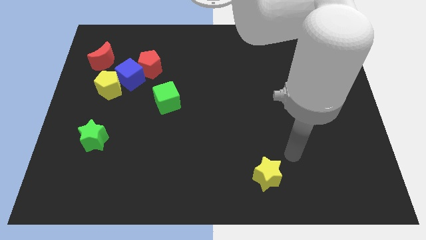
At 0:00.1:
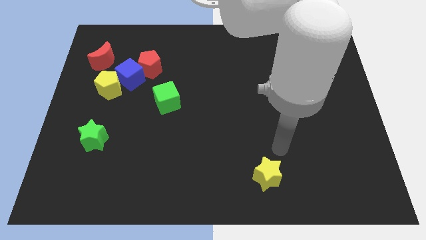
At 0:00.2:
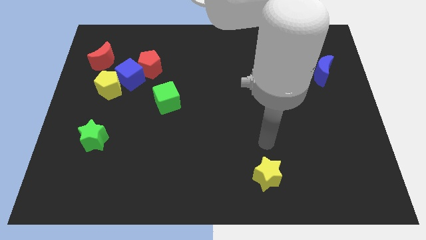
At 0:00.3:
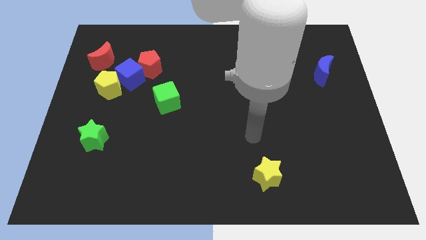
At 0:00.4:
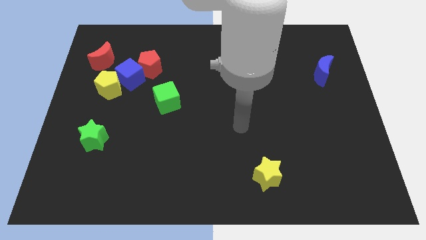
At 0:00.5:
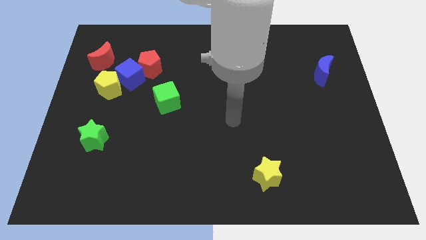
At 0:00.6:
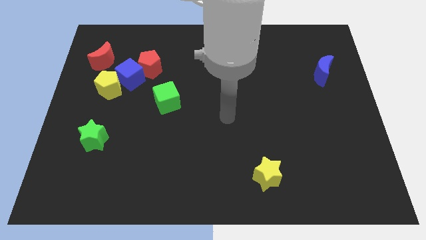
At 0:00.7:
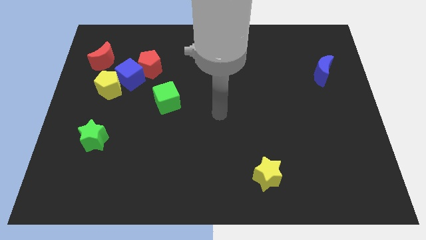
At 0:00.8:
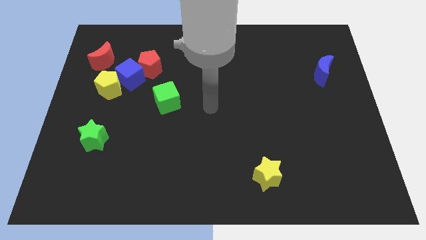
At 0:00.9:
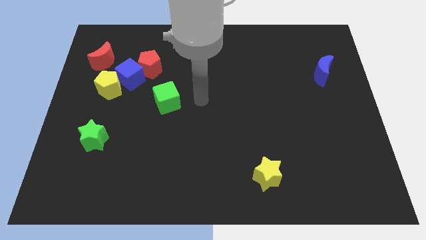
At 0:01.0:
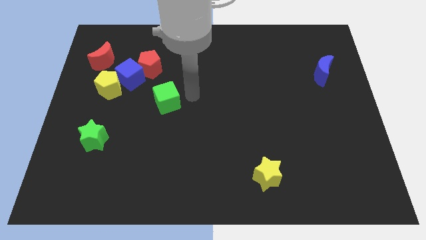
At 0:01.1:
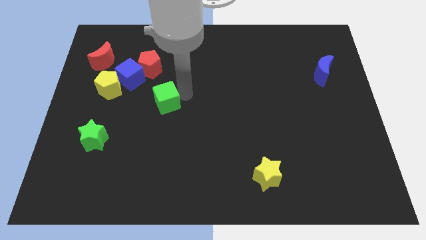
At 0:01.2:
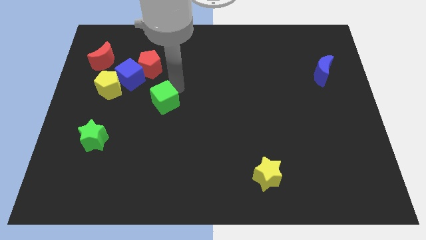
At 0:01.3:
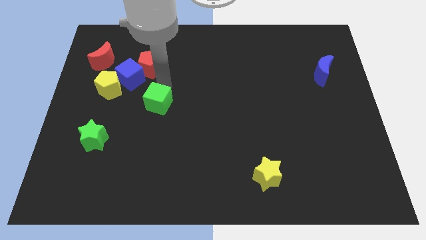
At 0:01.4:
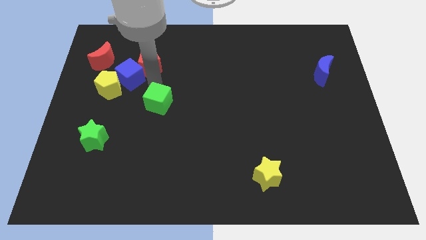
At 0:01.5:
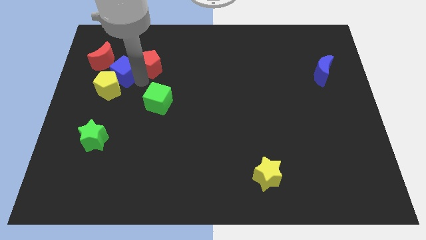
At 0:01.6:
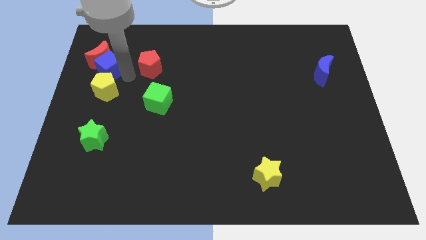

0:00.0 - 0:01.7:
separate the red pentagon from the blue cube

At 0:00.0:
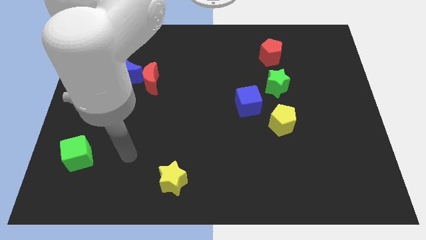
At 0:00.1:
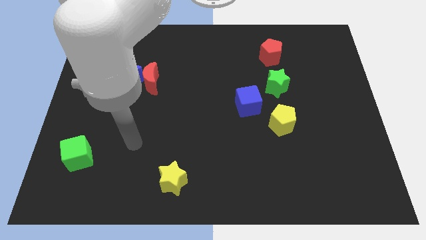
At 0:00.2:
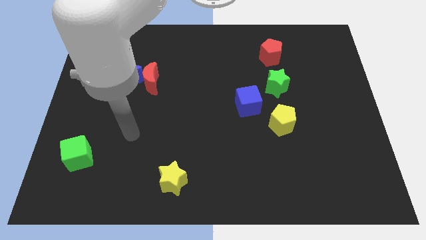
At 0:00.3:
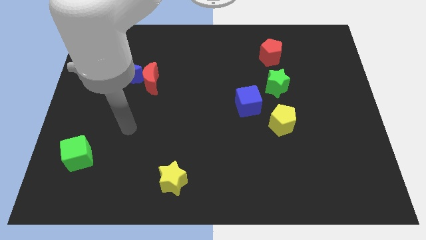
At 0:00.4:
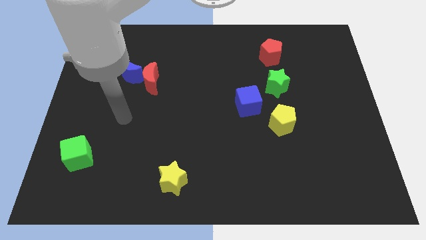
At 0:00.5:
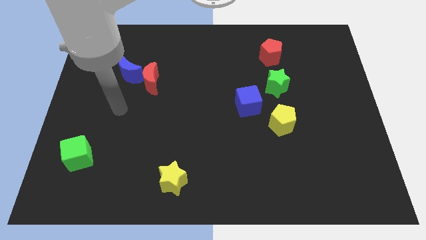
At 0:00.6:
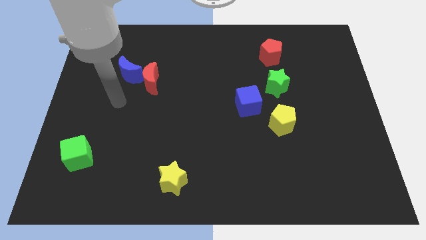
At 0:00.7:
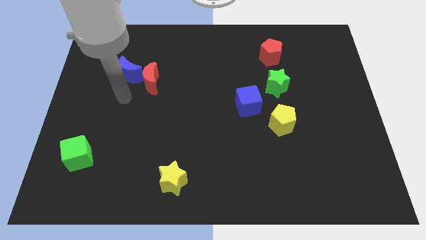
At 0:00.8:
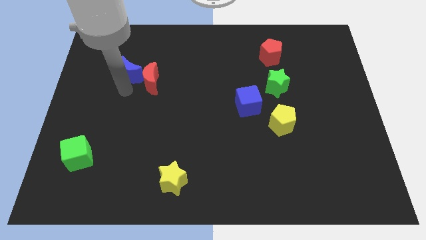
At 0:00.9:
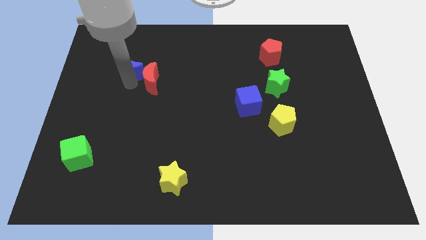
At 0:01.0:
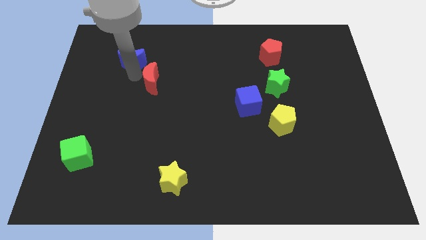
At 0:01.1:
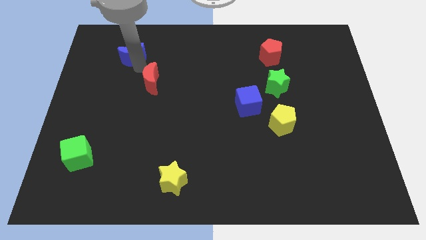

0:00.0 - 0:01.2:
separate the red moon from the blue moon

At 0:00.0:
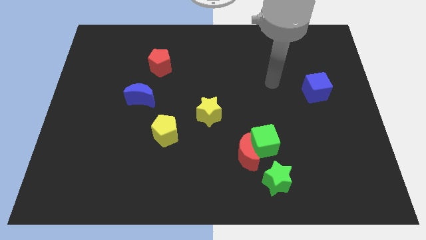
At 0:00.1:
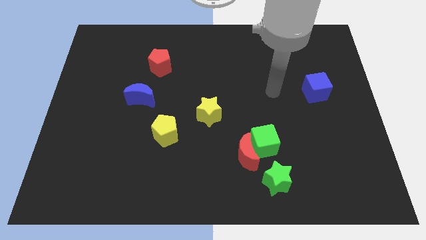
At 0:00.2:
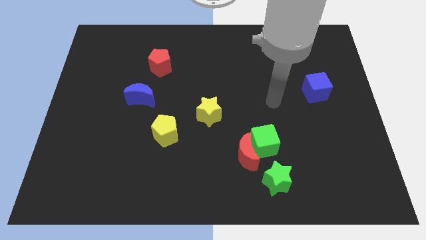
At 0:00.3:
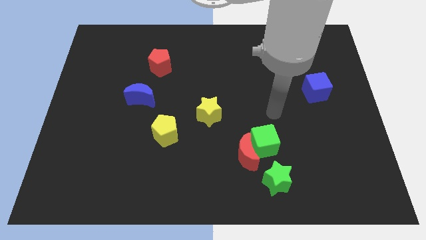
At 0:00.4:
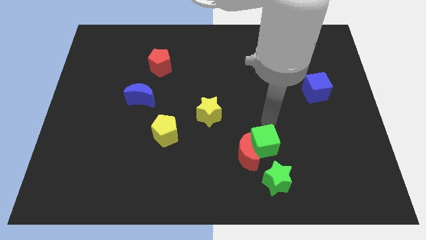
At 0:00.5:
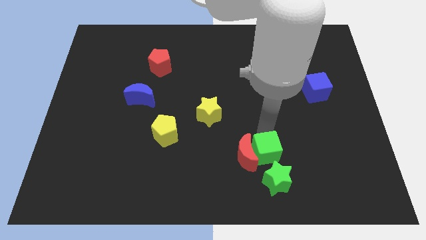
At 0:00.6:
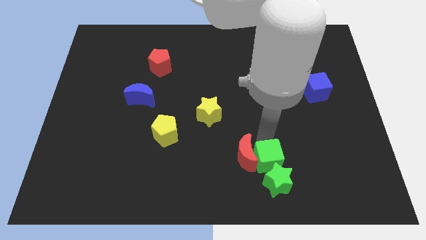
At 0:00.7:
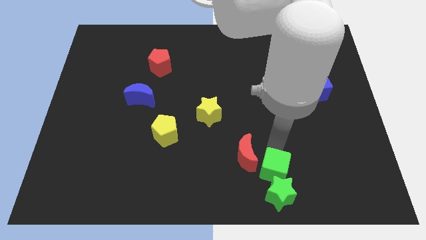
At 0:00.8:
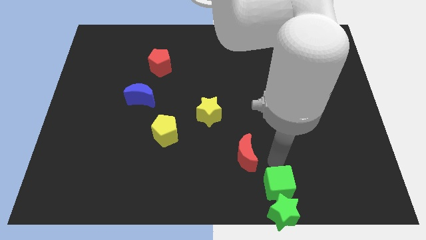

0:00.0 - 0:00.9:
pull the red moon apart from the green cube and green star

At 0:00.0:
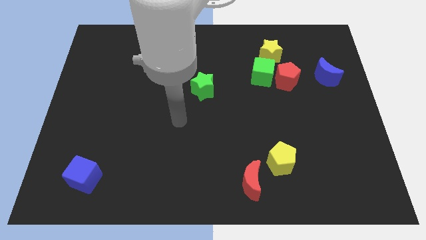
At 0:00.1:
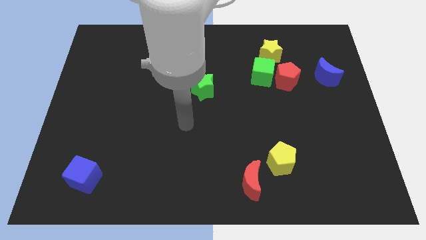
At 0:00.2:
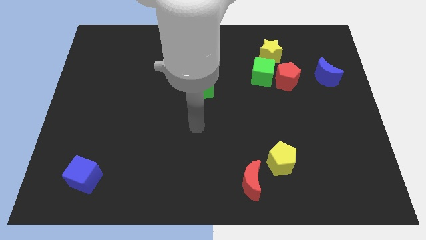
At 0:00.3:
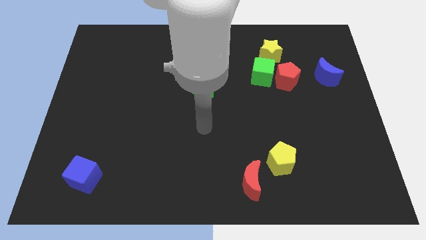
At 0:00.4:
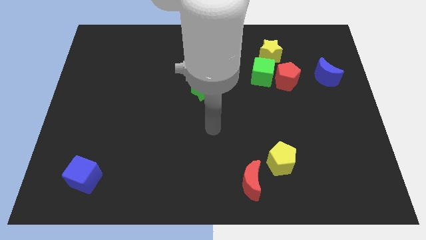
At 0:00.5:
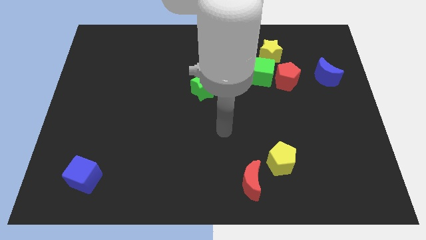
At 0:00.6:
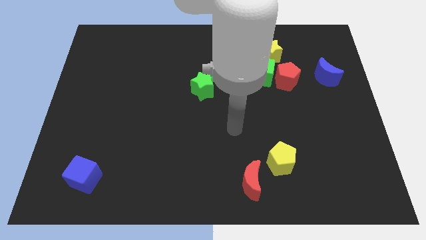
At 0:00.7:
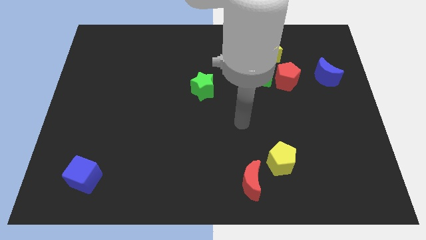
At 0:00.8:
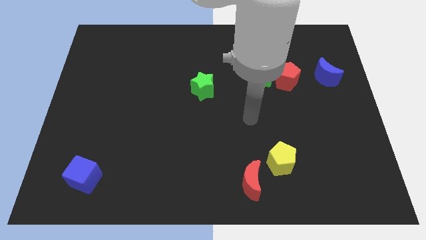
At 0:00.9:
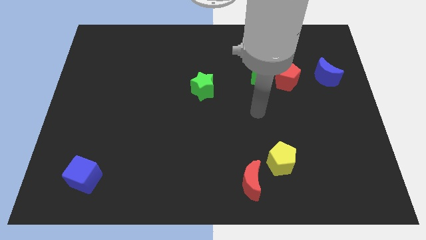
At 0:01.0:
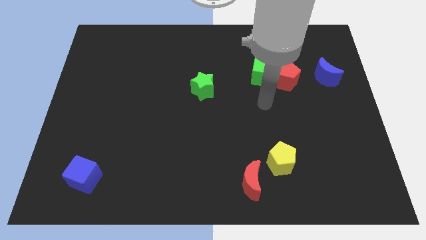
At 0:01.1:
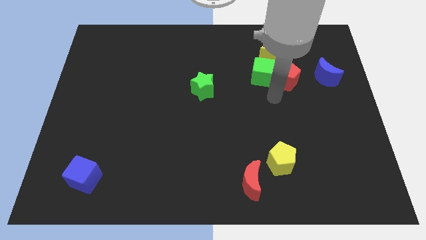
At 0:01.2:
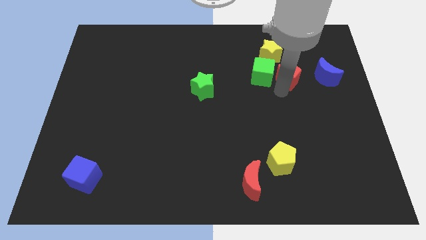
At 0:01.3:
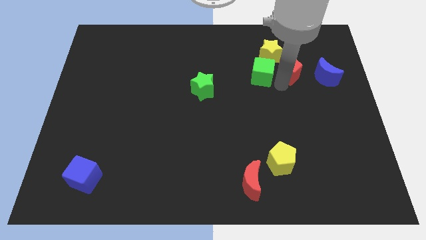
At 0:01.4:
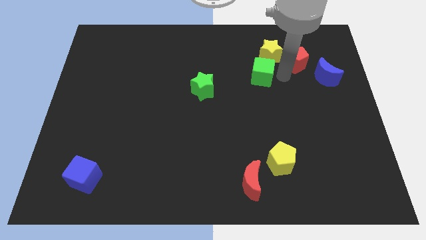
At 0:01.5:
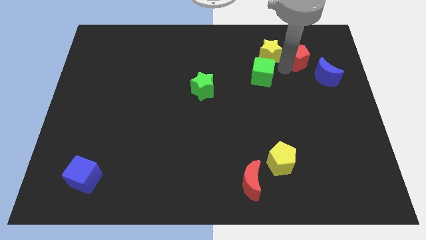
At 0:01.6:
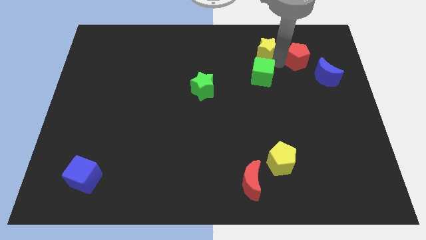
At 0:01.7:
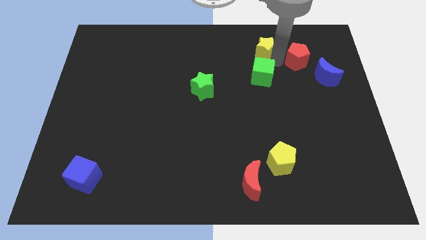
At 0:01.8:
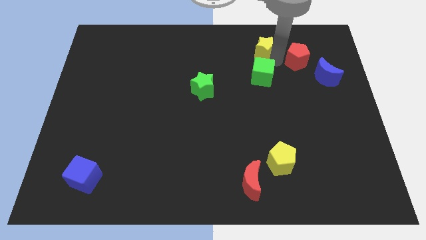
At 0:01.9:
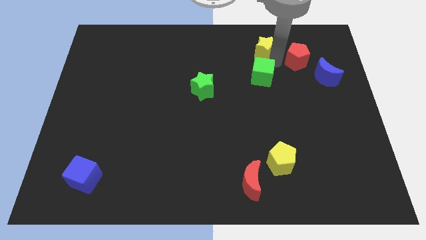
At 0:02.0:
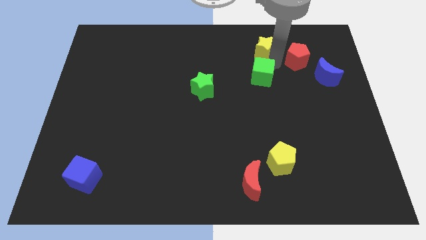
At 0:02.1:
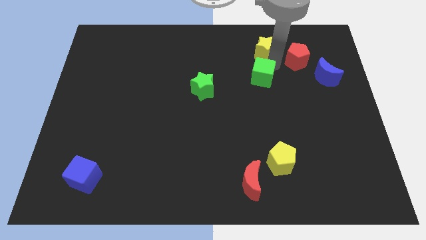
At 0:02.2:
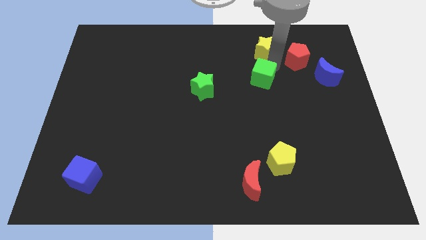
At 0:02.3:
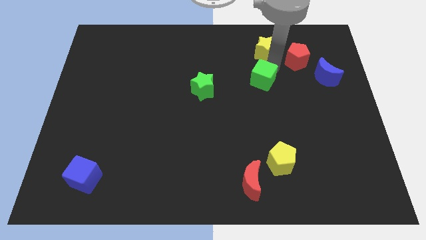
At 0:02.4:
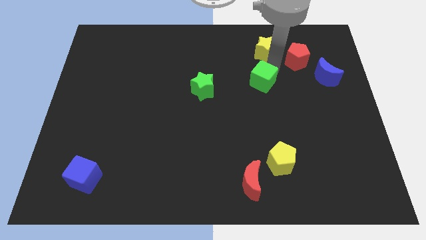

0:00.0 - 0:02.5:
move the green cube away from the red pentagon and yellow star

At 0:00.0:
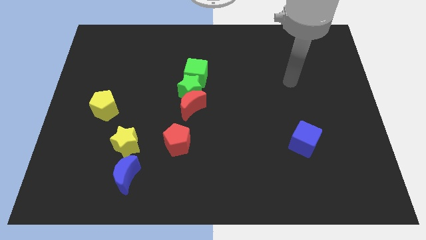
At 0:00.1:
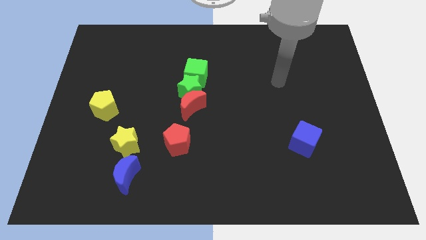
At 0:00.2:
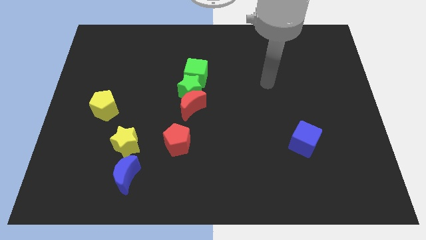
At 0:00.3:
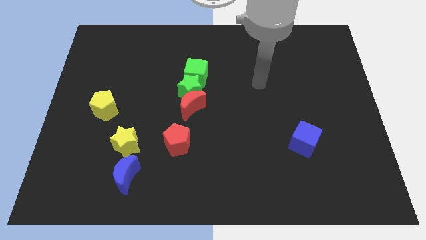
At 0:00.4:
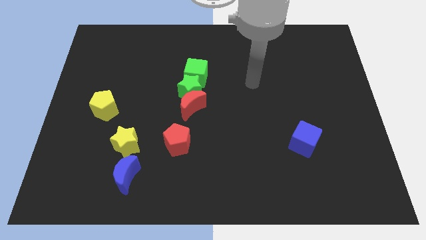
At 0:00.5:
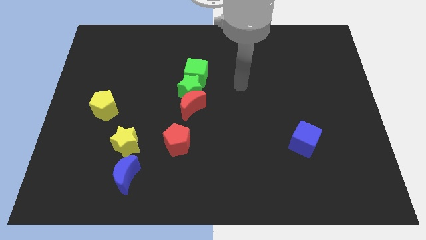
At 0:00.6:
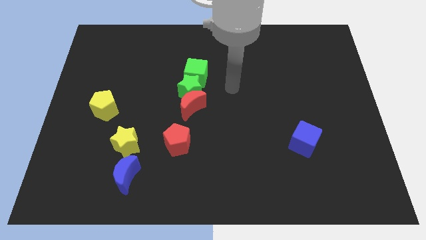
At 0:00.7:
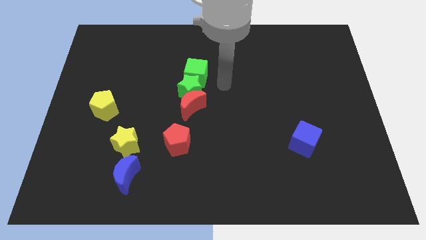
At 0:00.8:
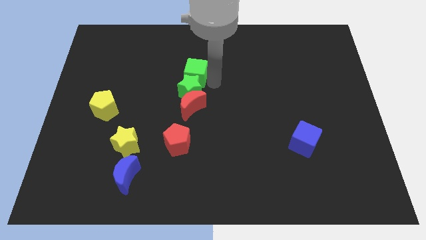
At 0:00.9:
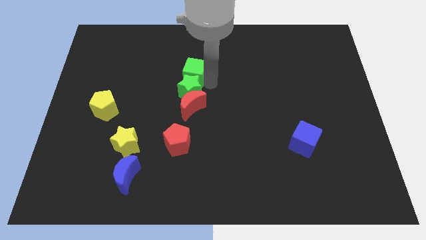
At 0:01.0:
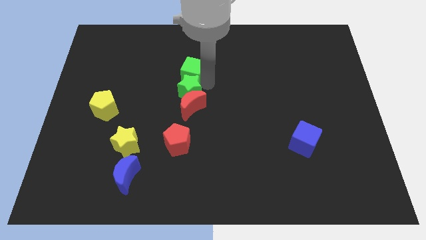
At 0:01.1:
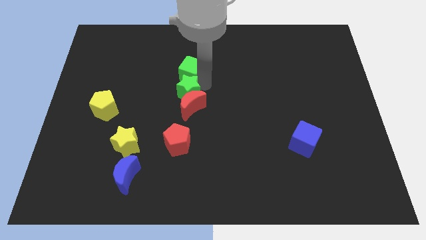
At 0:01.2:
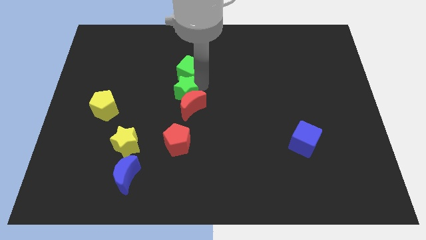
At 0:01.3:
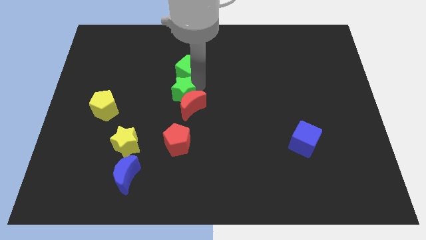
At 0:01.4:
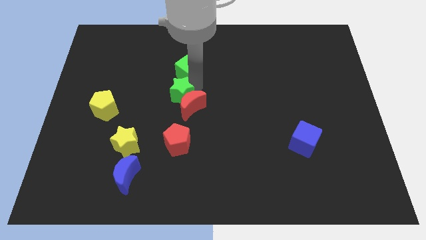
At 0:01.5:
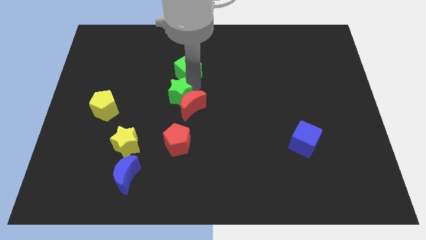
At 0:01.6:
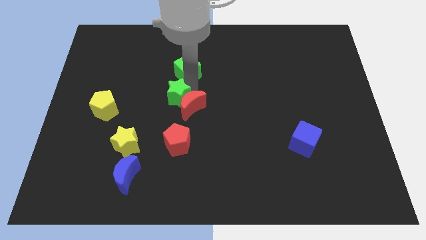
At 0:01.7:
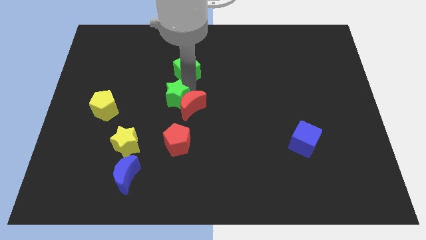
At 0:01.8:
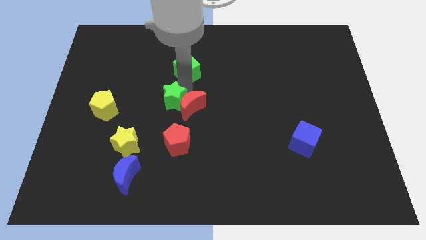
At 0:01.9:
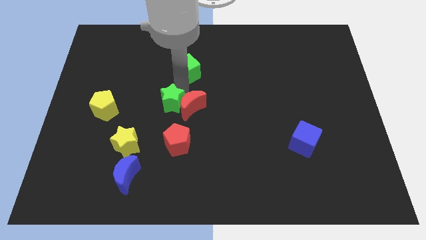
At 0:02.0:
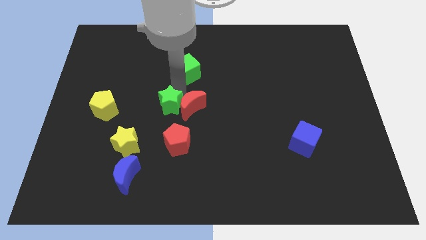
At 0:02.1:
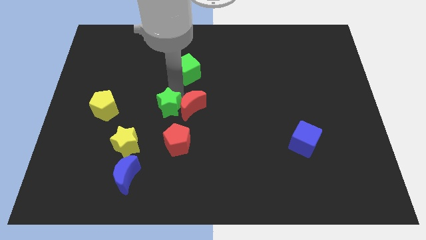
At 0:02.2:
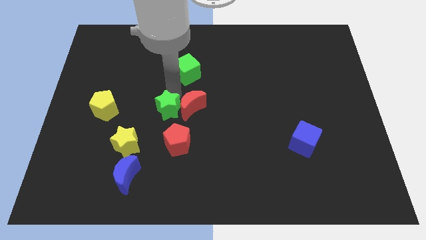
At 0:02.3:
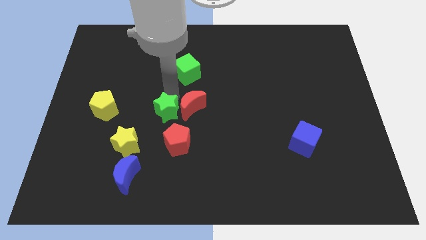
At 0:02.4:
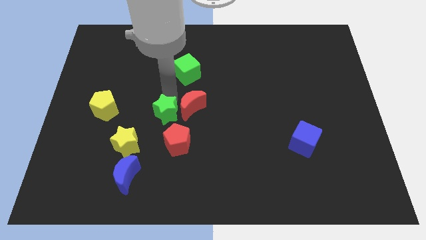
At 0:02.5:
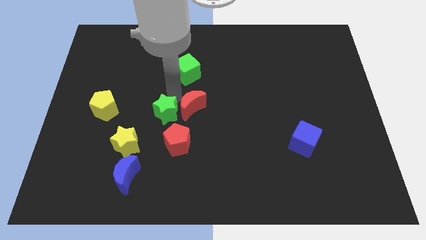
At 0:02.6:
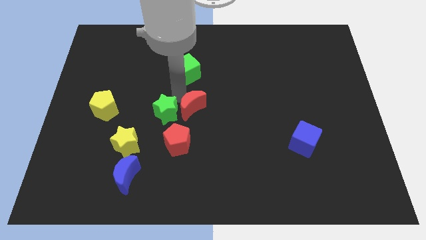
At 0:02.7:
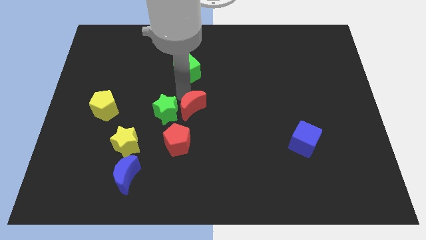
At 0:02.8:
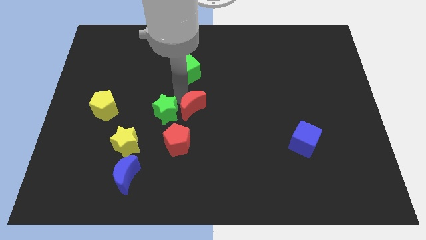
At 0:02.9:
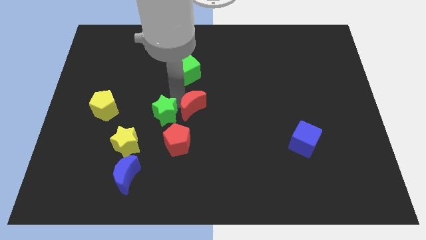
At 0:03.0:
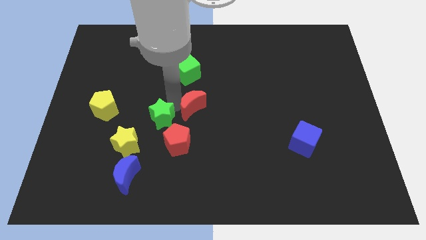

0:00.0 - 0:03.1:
pull the green star apart from the red moon and green cube

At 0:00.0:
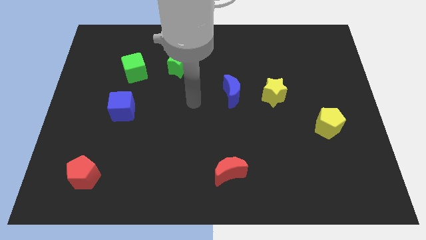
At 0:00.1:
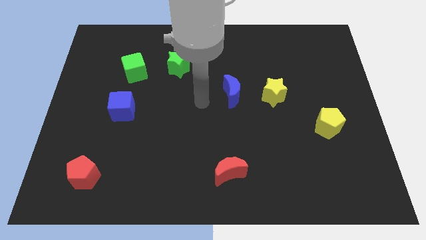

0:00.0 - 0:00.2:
pull the blue moon apart from the yellow star
